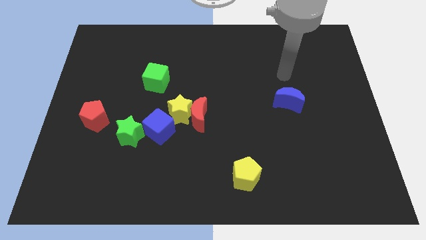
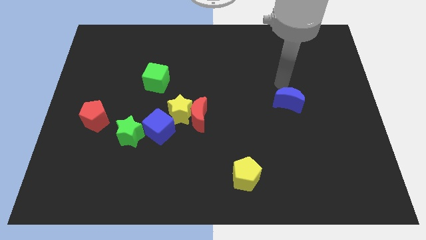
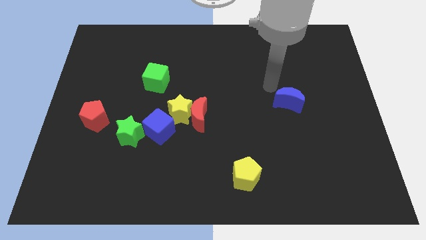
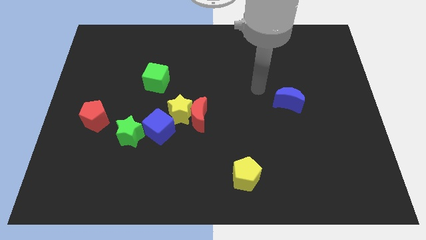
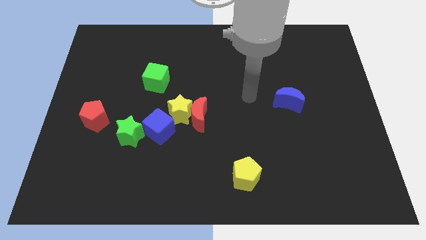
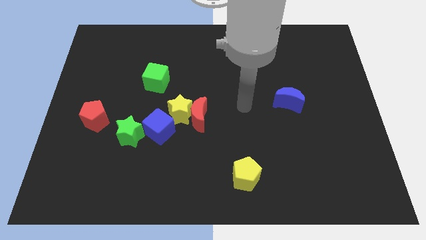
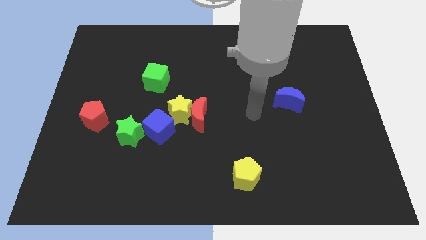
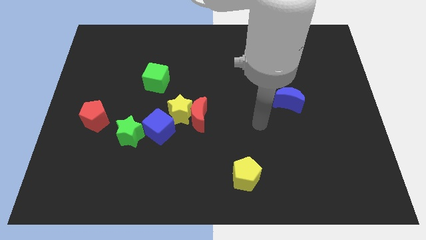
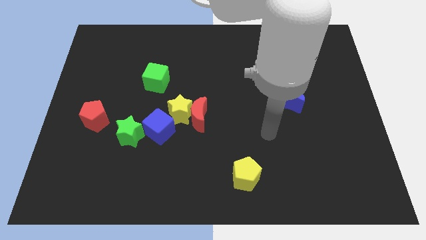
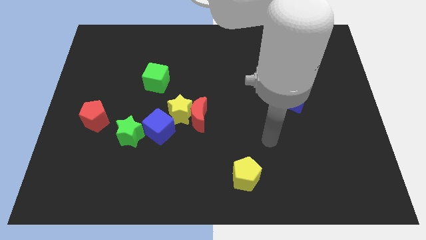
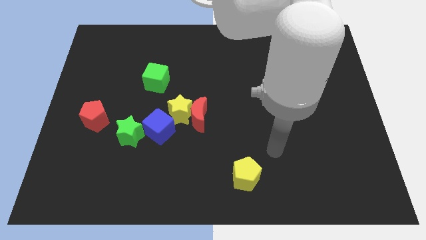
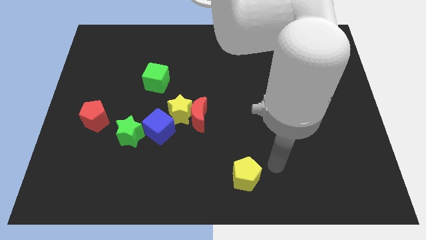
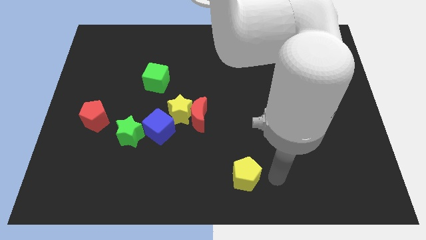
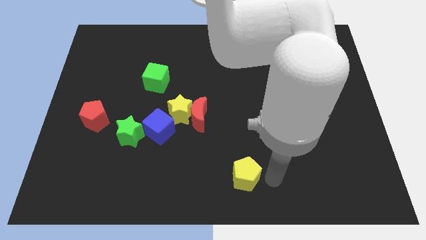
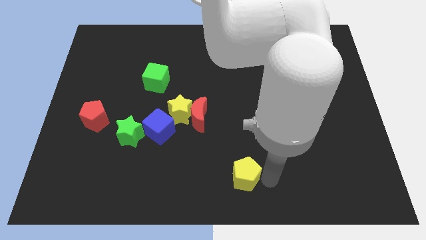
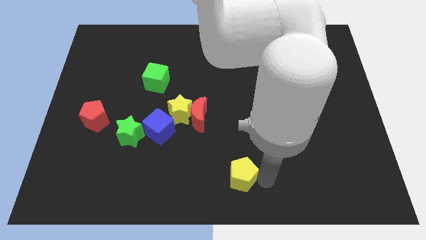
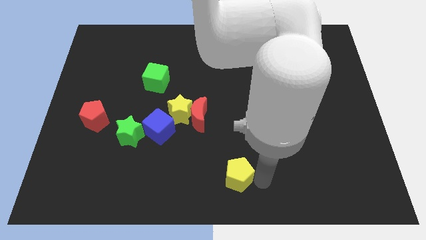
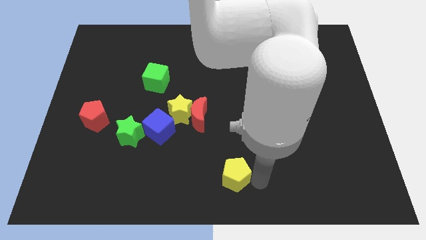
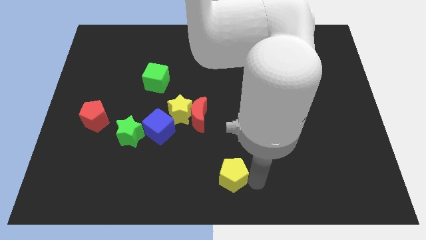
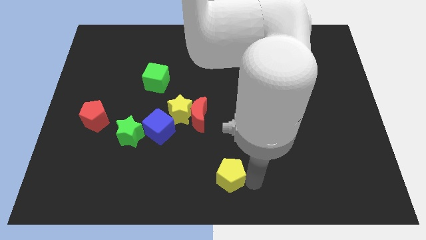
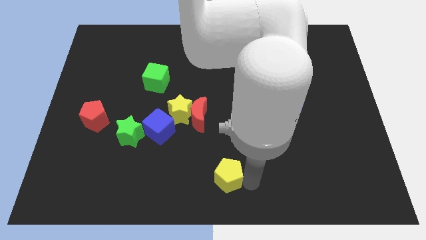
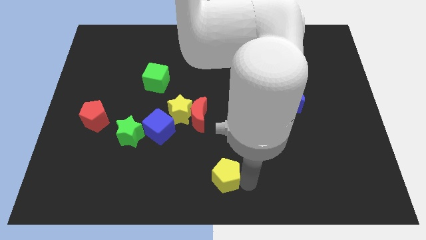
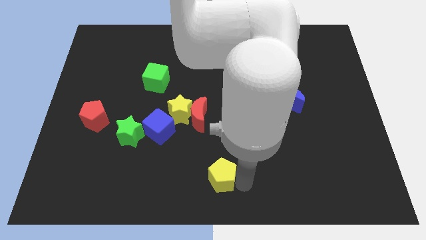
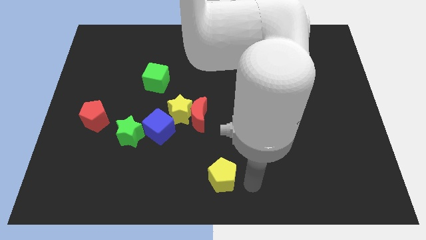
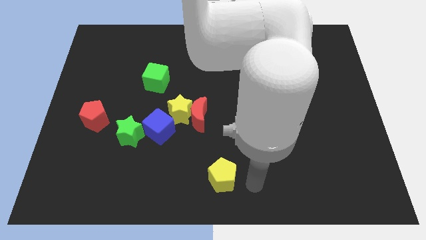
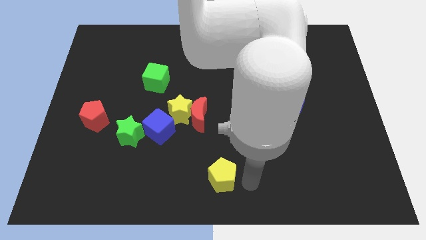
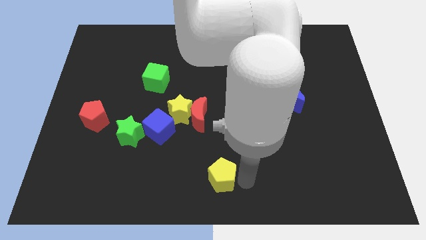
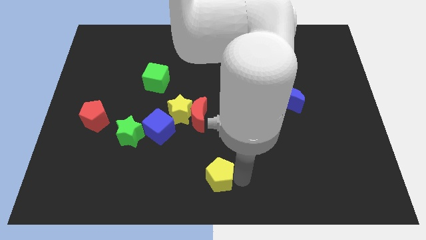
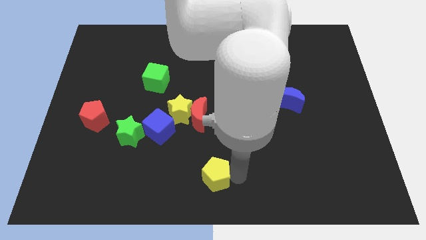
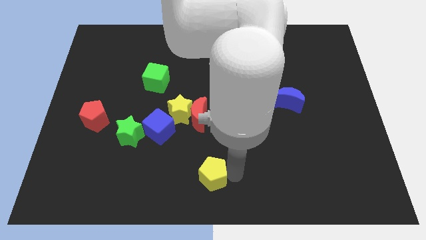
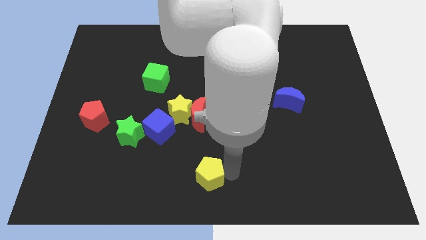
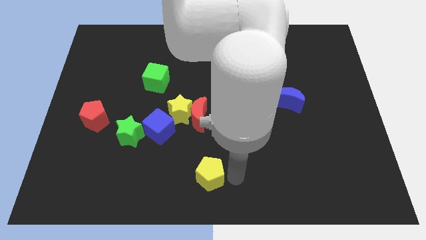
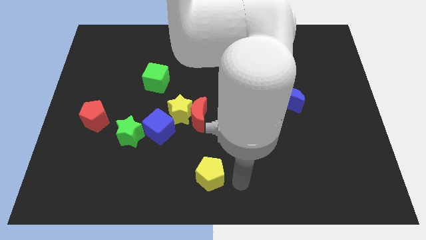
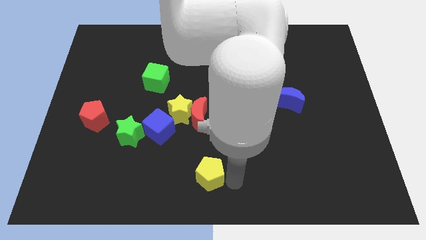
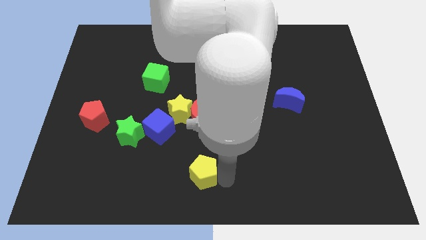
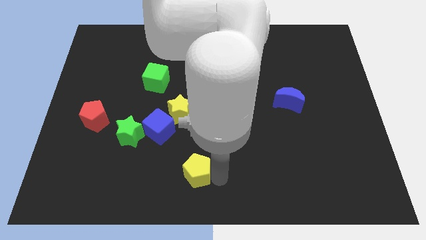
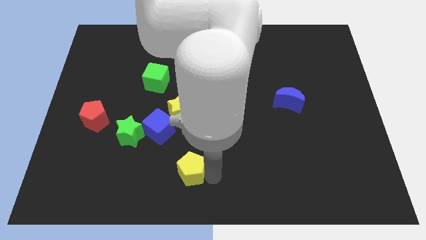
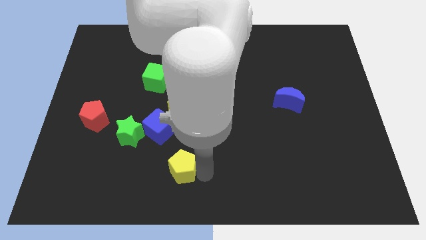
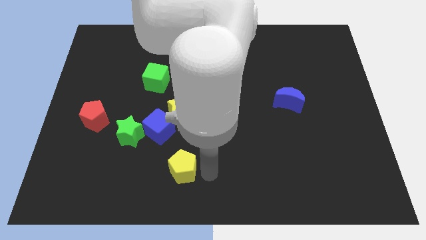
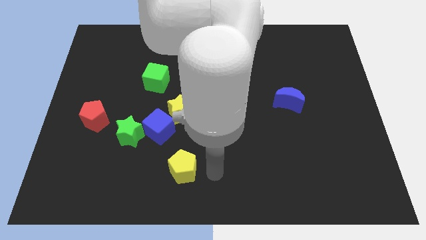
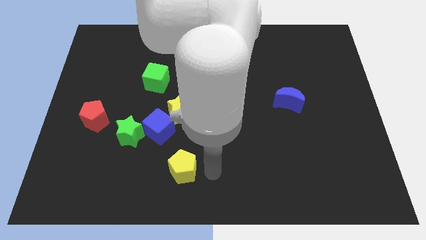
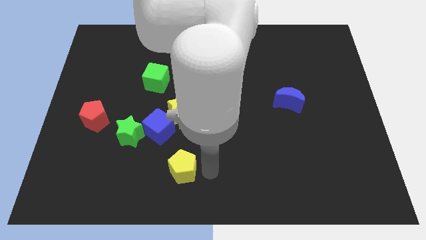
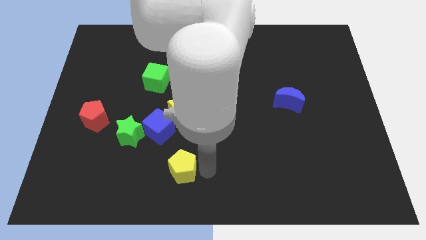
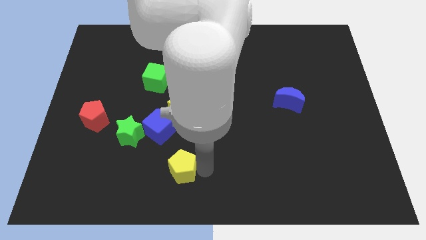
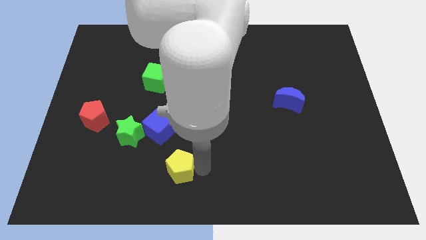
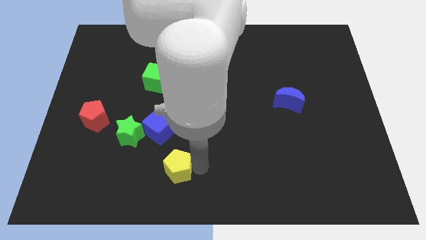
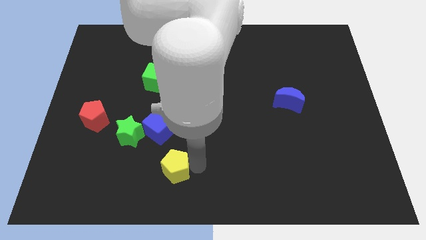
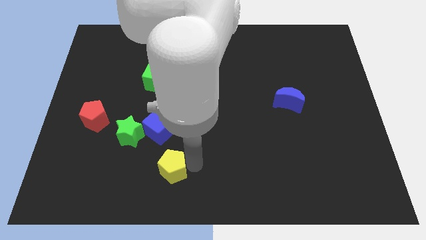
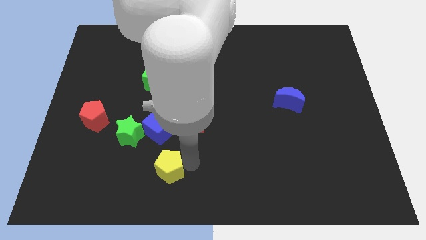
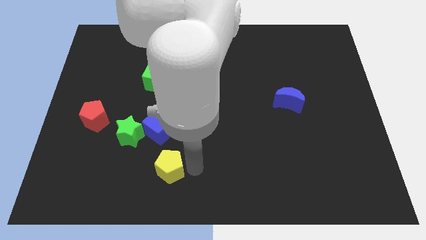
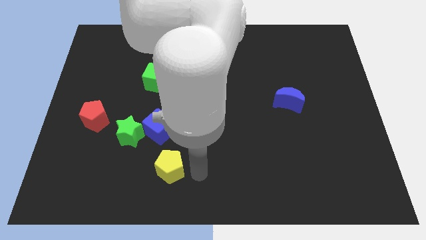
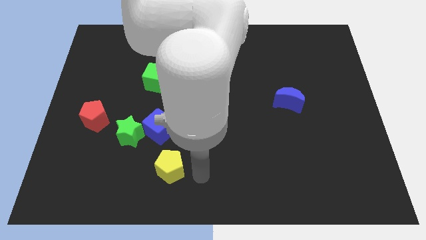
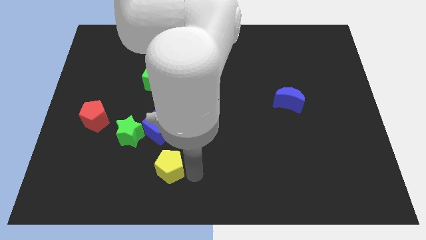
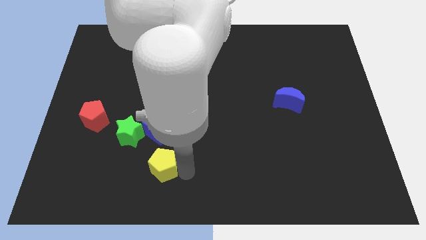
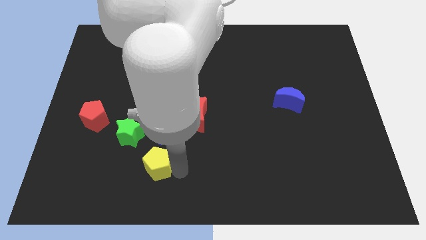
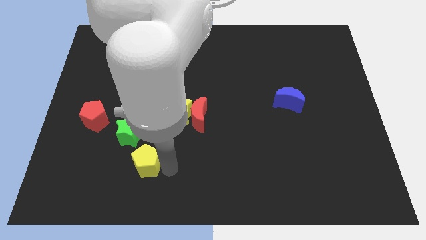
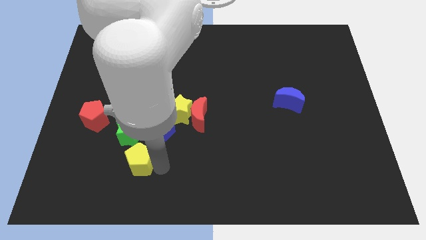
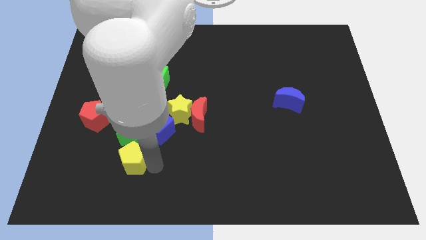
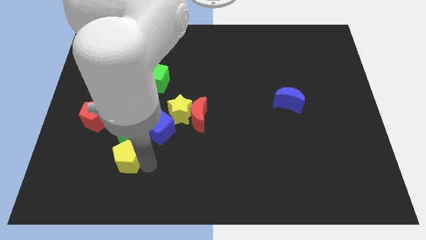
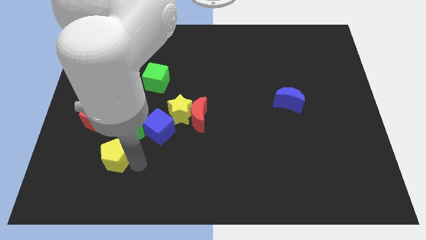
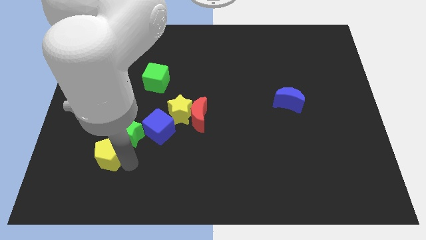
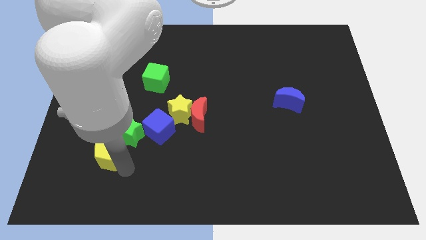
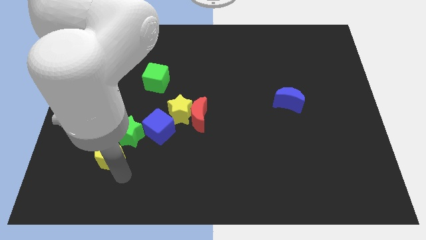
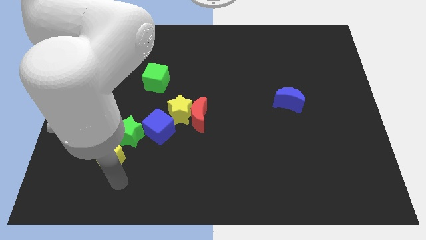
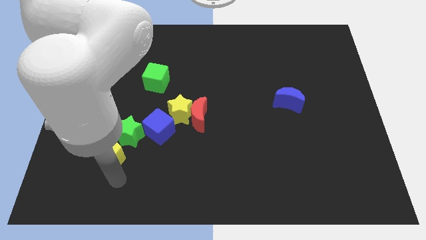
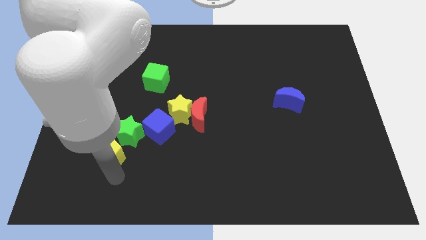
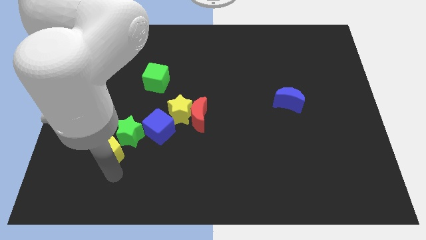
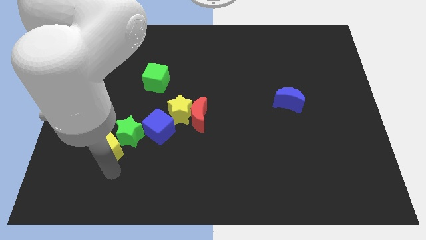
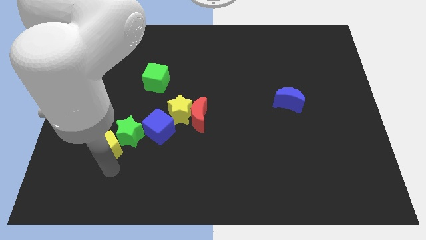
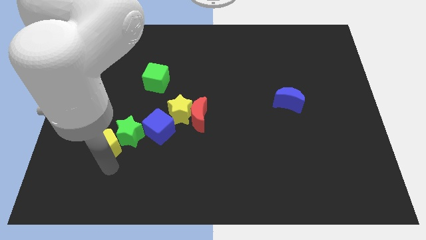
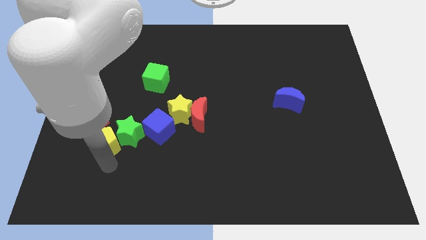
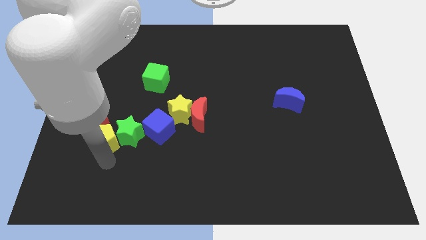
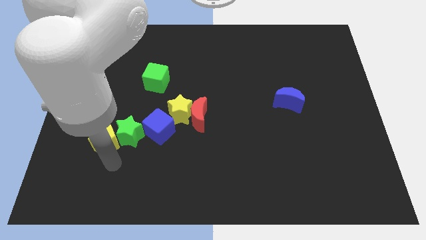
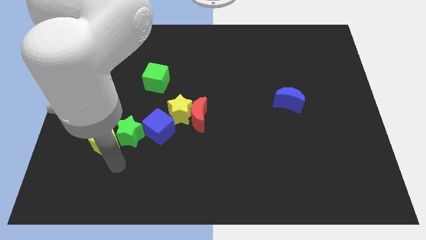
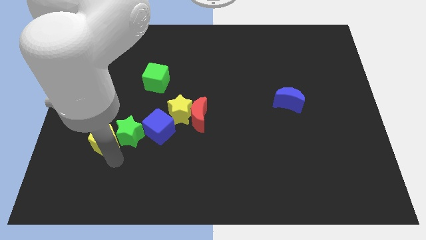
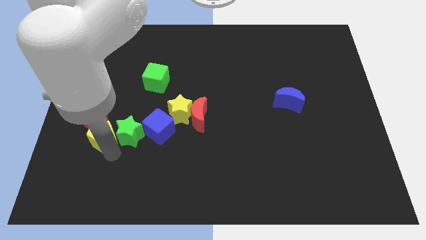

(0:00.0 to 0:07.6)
put the yellow pentagon next to the red pentagon
